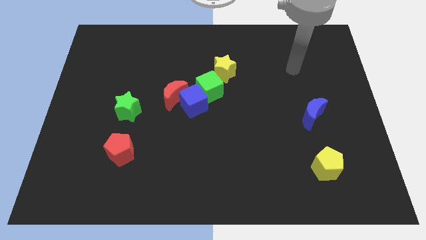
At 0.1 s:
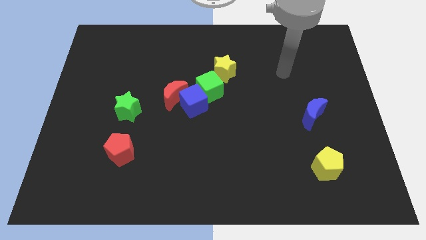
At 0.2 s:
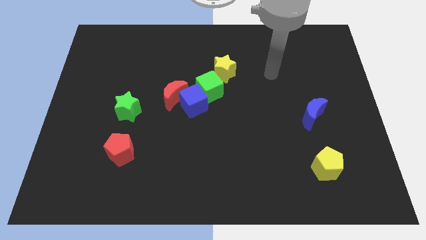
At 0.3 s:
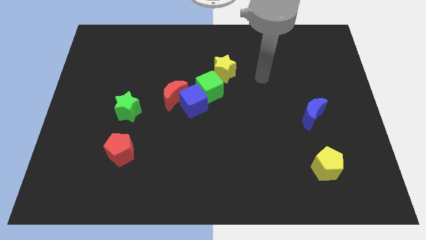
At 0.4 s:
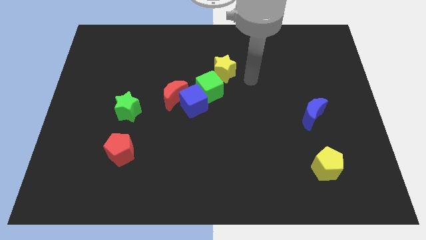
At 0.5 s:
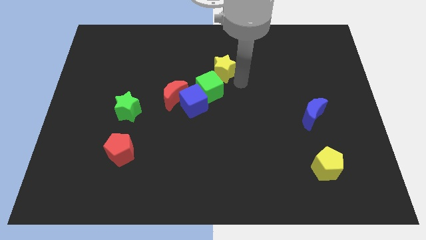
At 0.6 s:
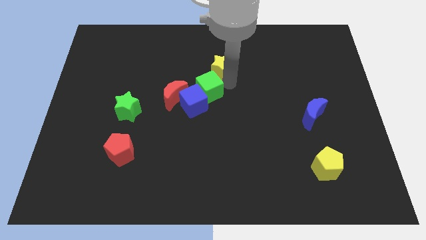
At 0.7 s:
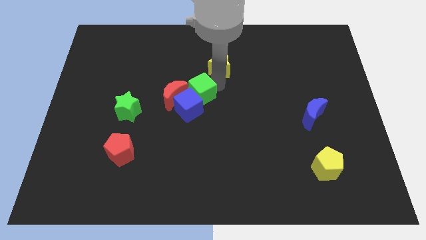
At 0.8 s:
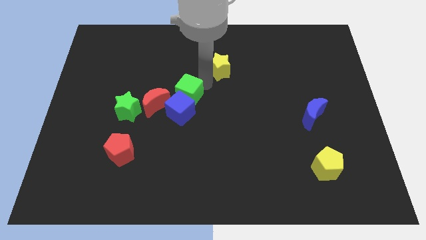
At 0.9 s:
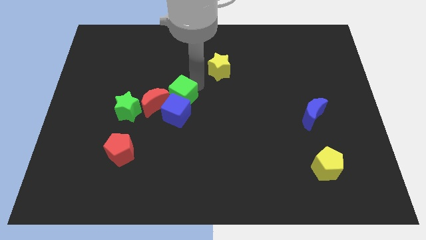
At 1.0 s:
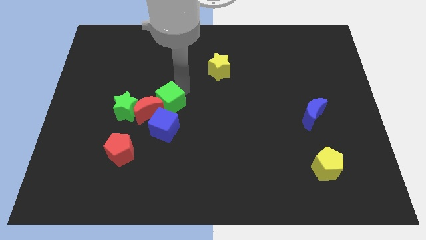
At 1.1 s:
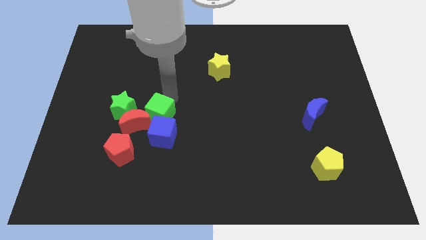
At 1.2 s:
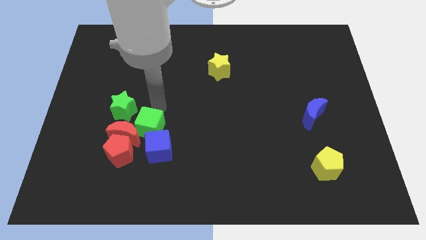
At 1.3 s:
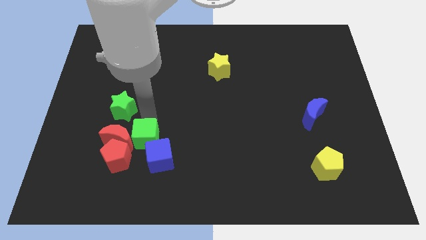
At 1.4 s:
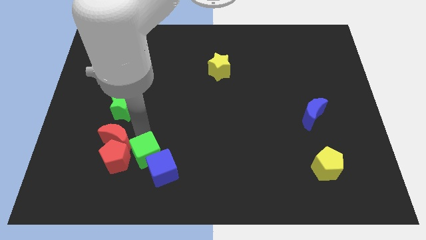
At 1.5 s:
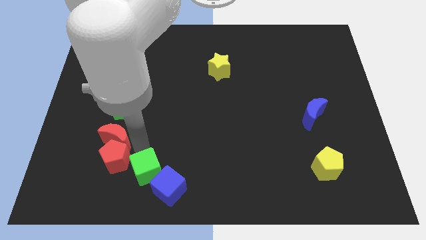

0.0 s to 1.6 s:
separate the blue cube from the red moon and green cube

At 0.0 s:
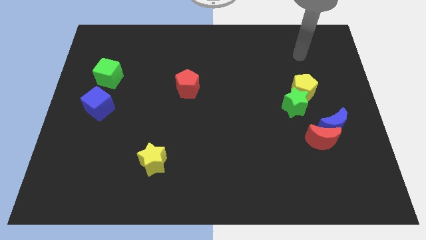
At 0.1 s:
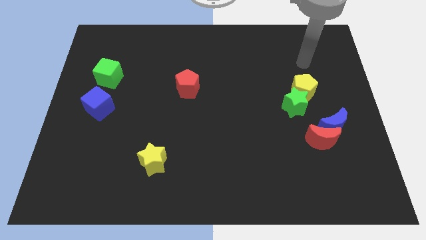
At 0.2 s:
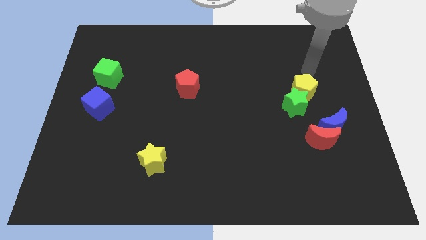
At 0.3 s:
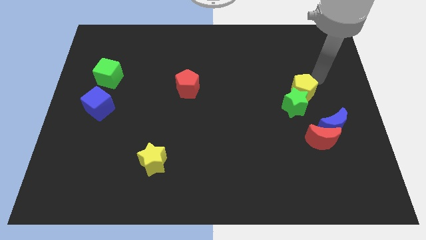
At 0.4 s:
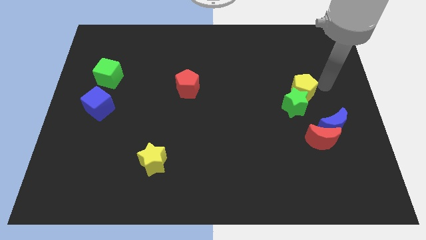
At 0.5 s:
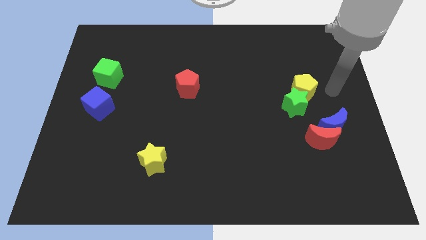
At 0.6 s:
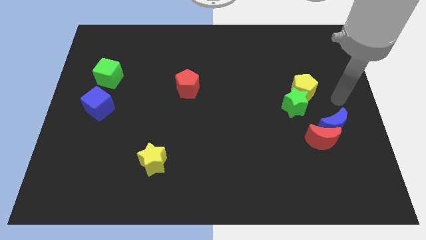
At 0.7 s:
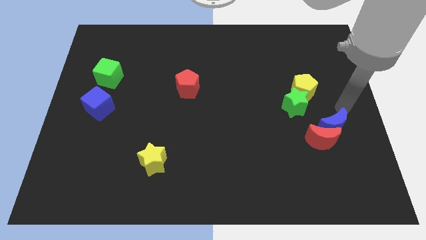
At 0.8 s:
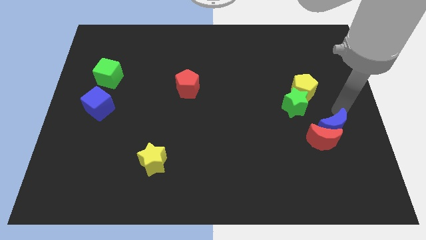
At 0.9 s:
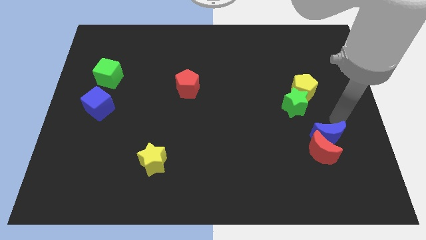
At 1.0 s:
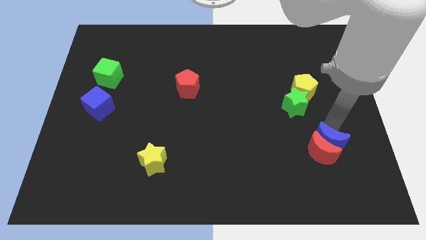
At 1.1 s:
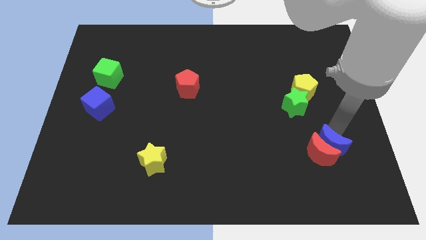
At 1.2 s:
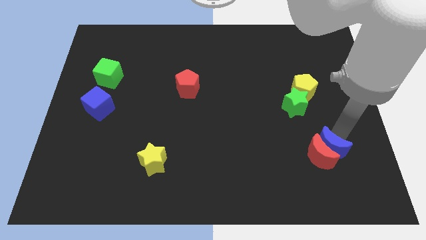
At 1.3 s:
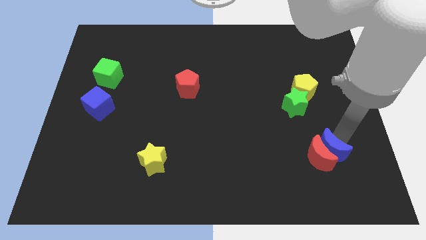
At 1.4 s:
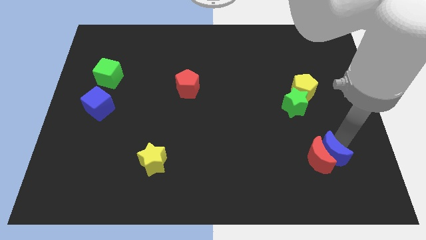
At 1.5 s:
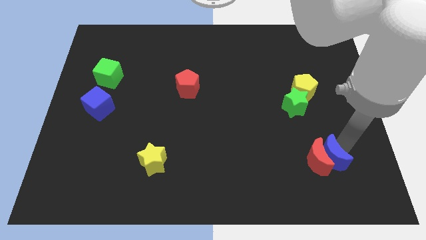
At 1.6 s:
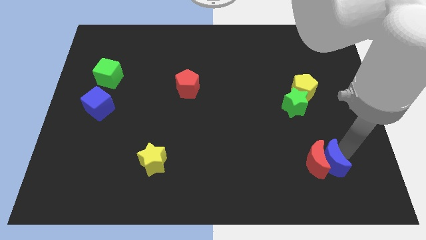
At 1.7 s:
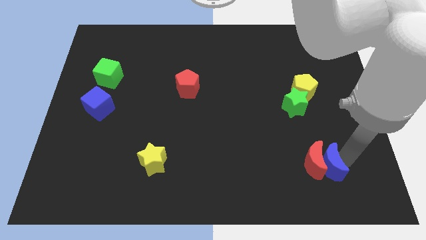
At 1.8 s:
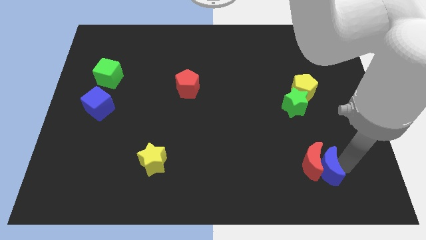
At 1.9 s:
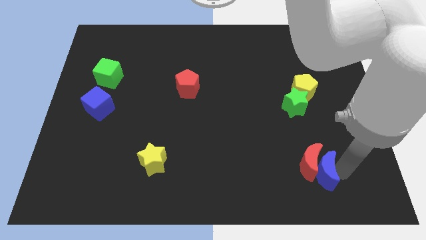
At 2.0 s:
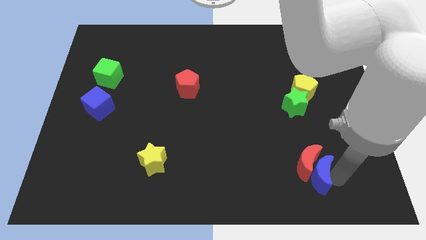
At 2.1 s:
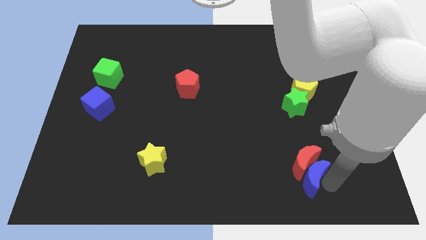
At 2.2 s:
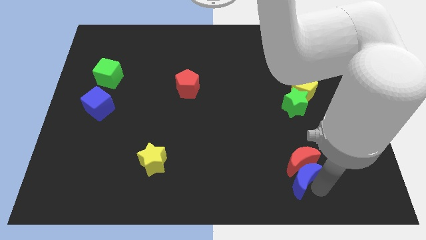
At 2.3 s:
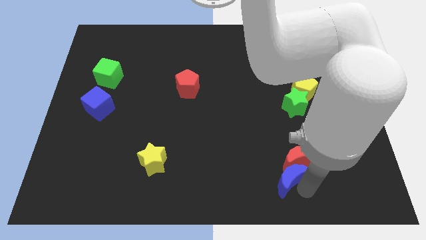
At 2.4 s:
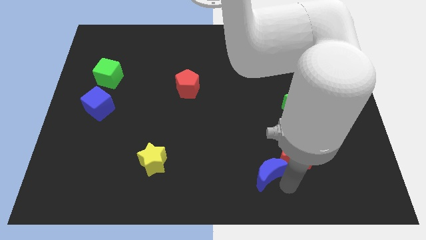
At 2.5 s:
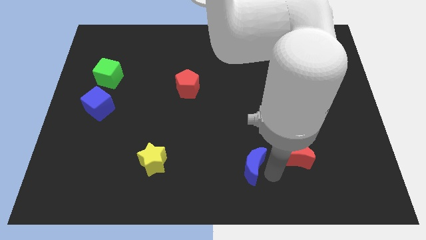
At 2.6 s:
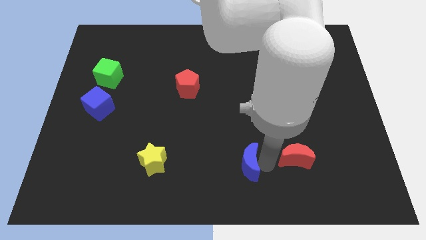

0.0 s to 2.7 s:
separate the red moon from the blue moon

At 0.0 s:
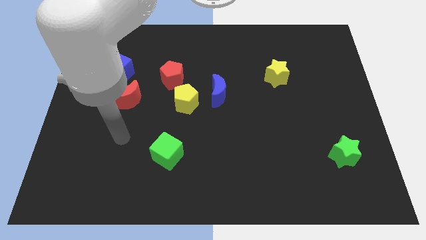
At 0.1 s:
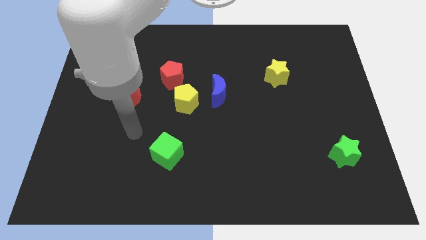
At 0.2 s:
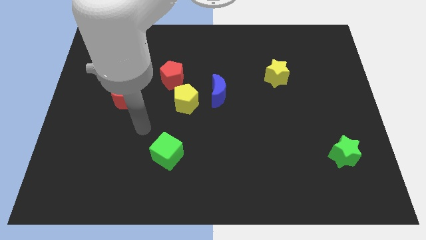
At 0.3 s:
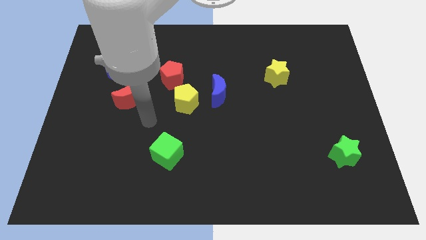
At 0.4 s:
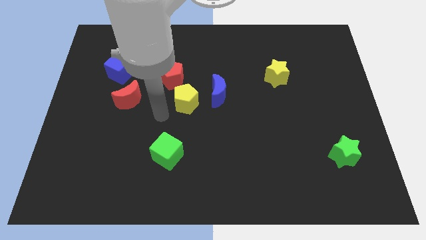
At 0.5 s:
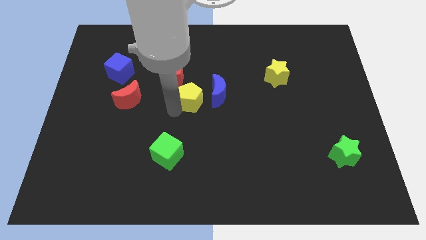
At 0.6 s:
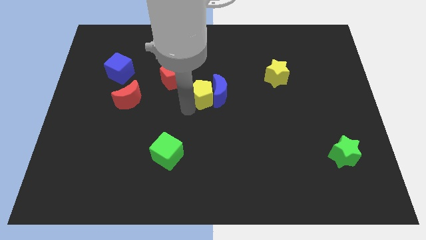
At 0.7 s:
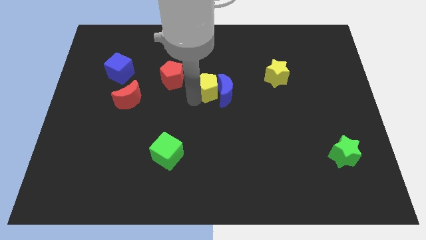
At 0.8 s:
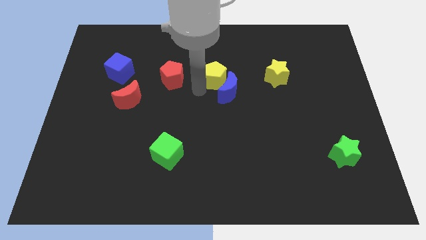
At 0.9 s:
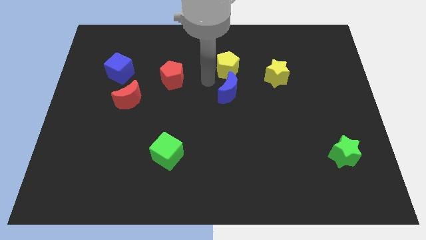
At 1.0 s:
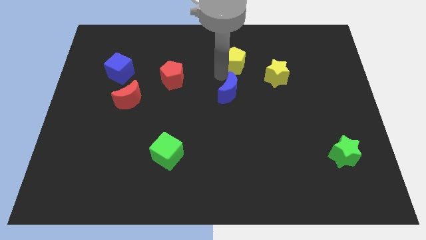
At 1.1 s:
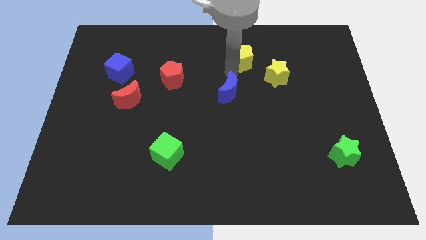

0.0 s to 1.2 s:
pull the blue moon apart from the yellow pentagon

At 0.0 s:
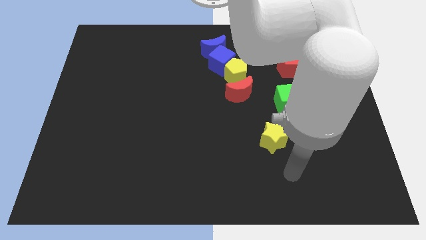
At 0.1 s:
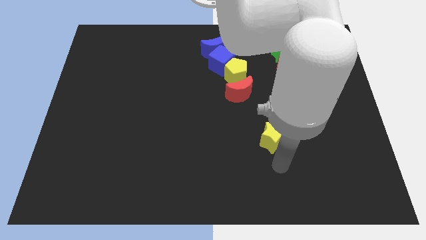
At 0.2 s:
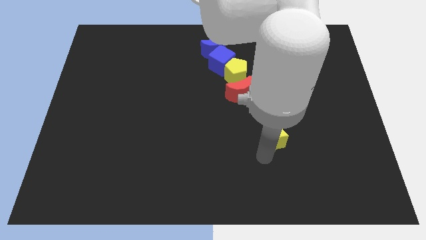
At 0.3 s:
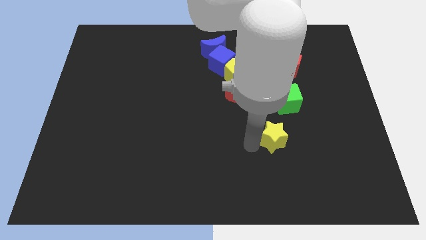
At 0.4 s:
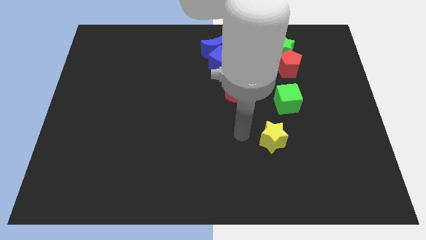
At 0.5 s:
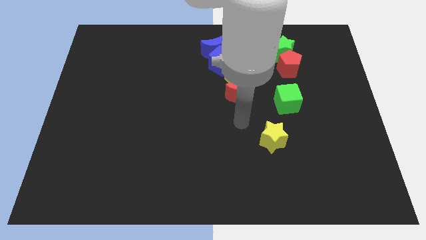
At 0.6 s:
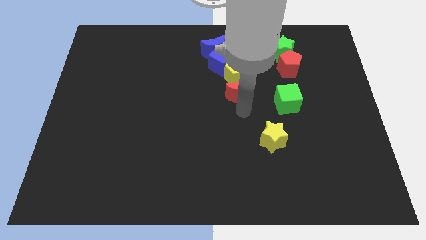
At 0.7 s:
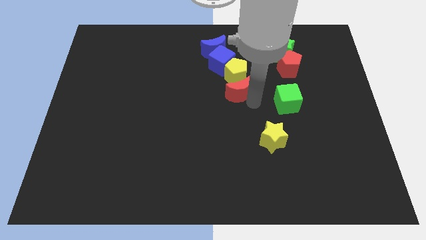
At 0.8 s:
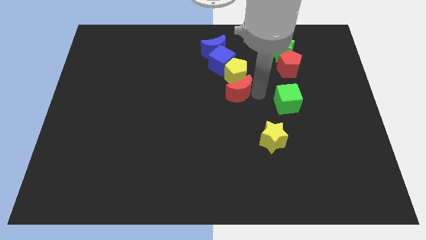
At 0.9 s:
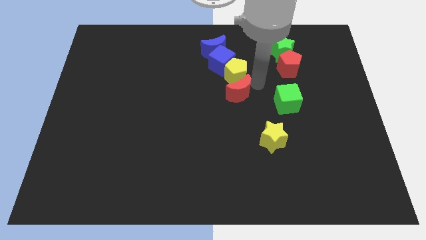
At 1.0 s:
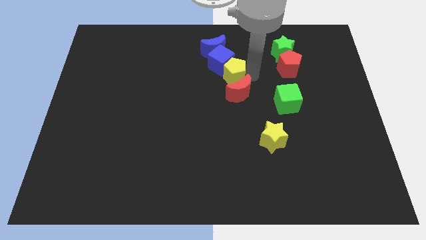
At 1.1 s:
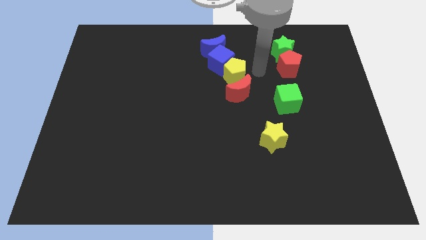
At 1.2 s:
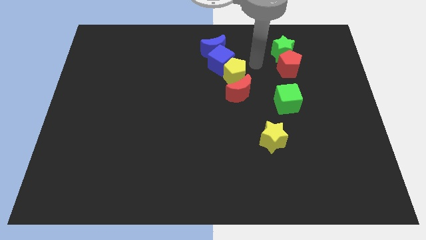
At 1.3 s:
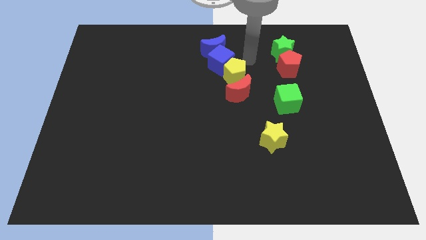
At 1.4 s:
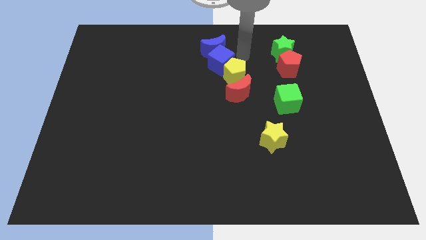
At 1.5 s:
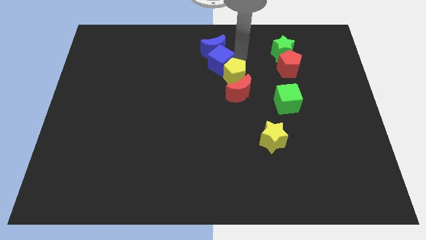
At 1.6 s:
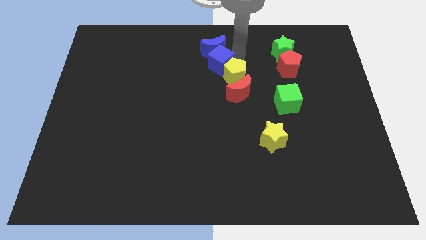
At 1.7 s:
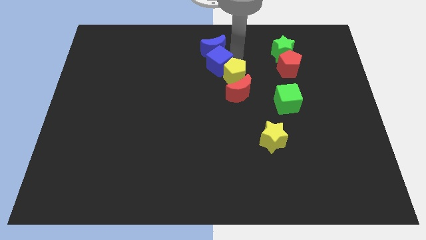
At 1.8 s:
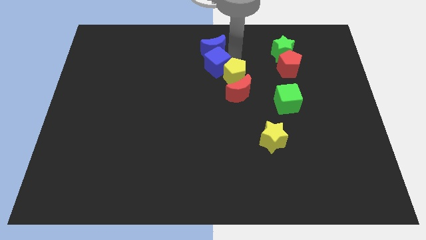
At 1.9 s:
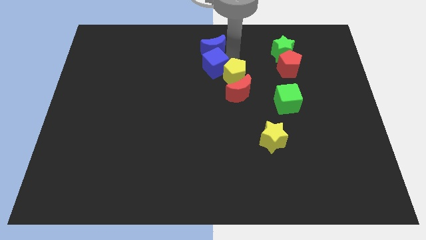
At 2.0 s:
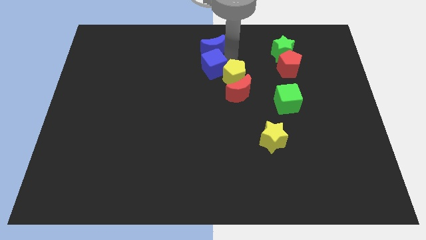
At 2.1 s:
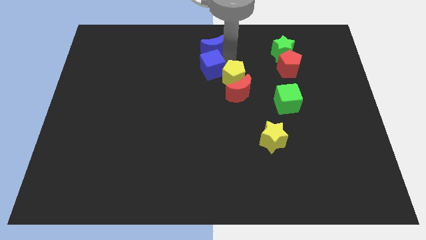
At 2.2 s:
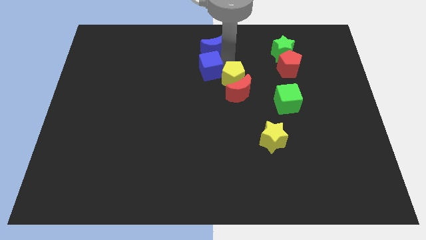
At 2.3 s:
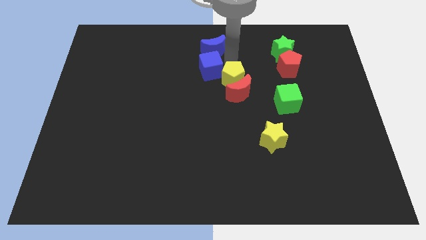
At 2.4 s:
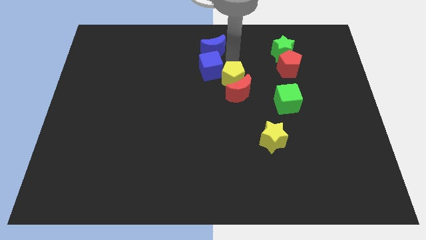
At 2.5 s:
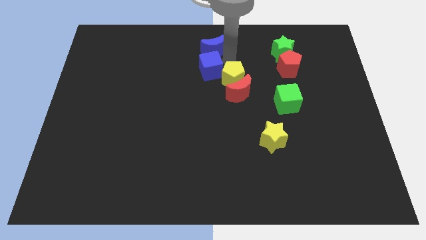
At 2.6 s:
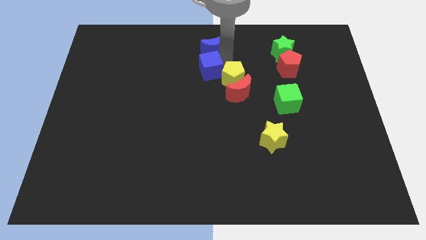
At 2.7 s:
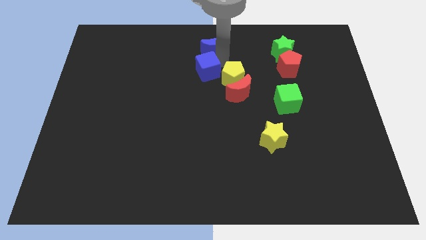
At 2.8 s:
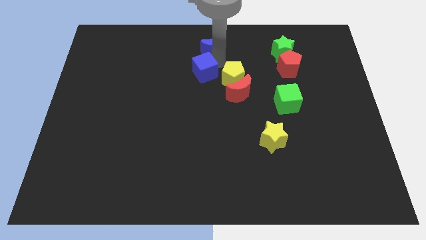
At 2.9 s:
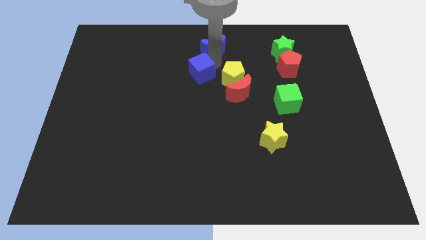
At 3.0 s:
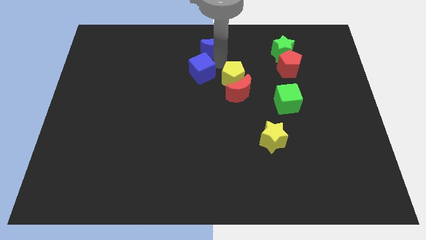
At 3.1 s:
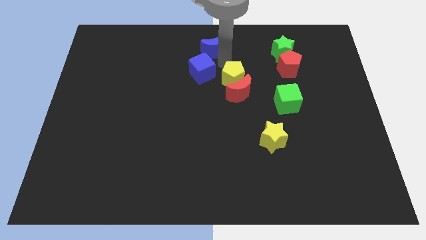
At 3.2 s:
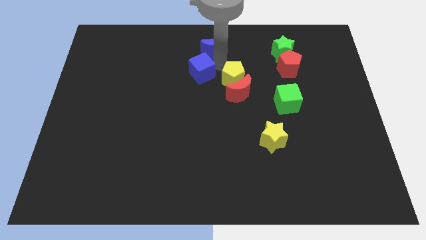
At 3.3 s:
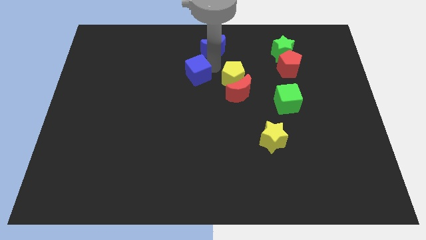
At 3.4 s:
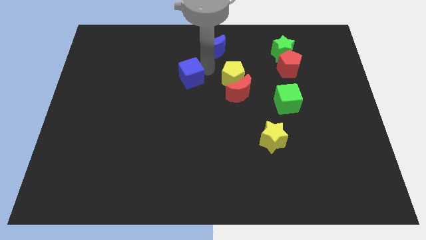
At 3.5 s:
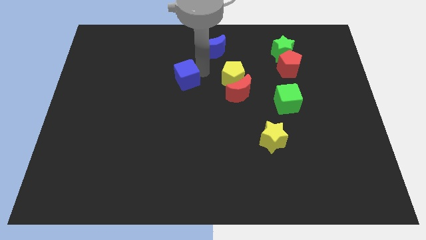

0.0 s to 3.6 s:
pull the blue cube apart from the blue moon and yellow pentagon

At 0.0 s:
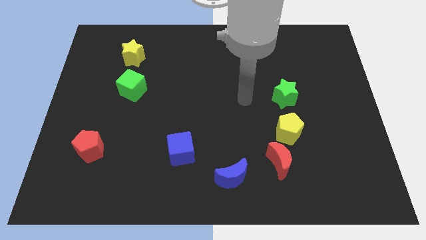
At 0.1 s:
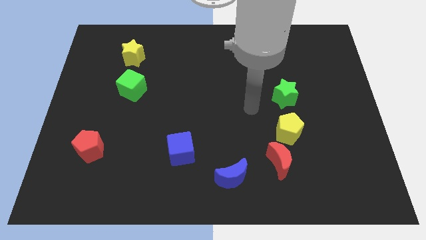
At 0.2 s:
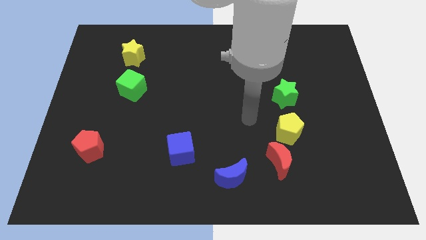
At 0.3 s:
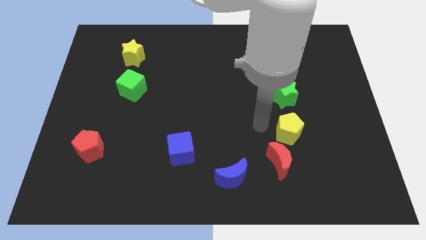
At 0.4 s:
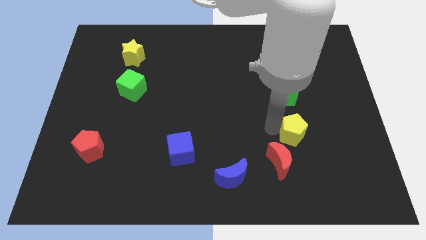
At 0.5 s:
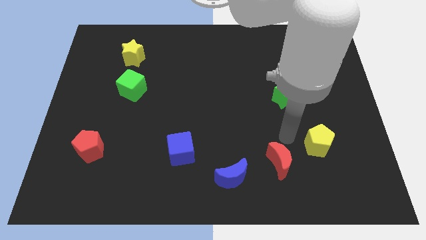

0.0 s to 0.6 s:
separate the red moon from the yellow pentagon
